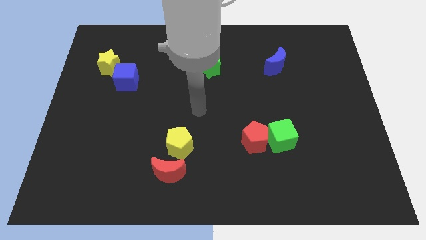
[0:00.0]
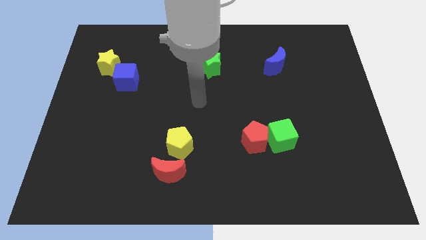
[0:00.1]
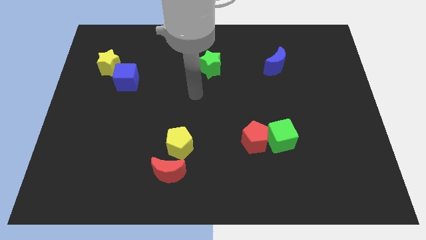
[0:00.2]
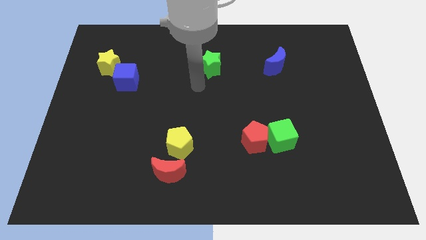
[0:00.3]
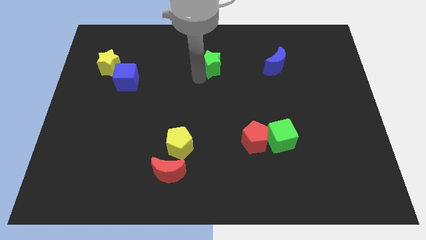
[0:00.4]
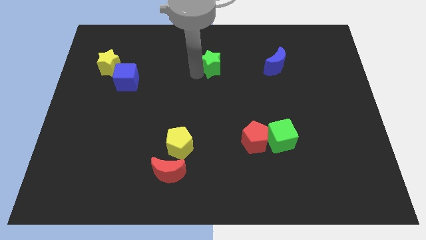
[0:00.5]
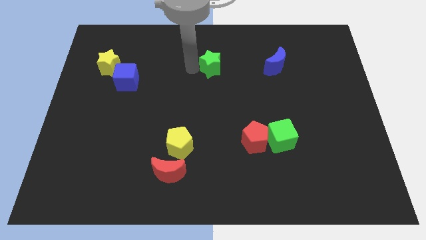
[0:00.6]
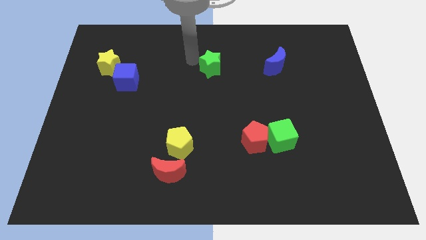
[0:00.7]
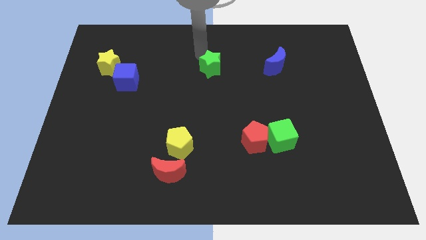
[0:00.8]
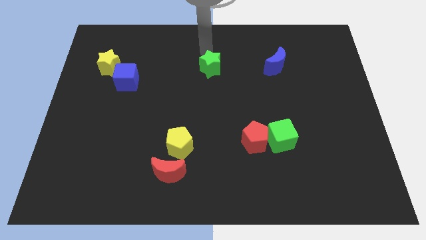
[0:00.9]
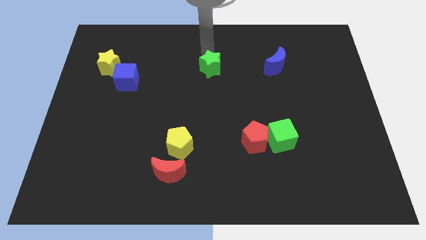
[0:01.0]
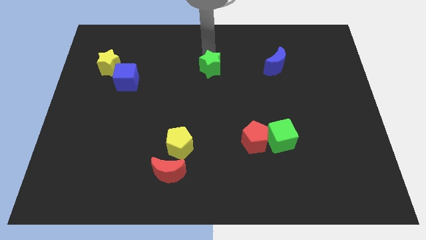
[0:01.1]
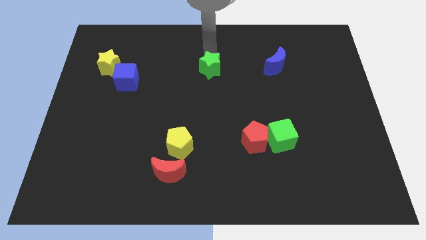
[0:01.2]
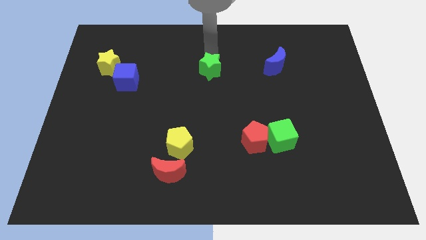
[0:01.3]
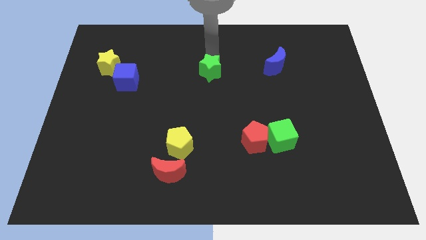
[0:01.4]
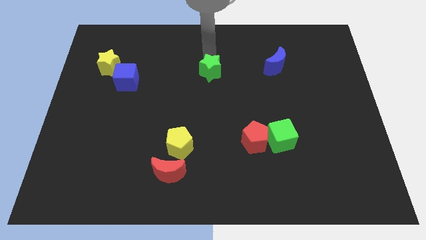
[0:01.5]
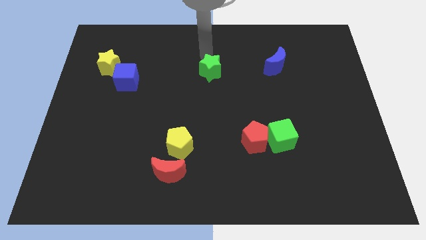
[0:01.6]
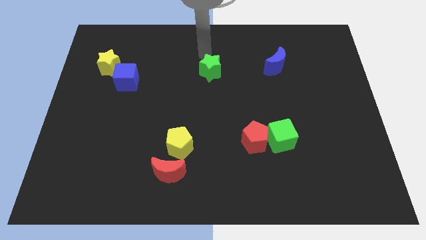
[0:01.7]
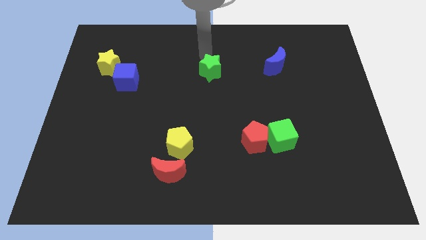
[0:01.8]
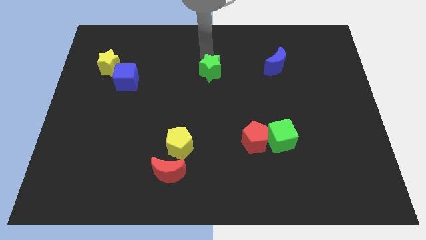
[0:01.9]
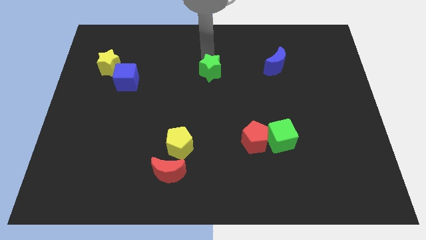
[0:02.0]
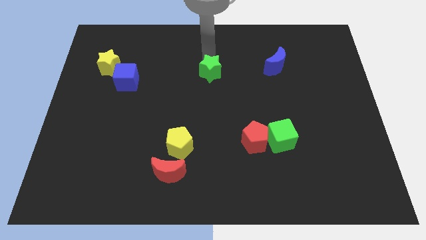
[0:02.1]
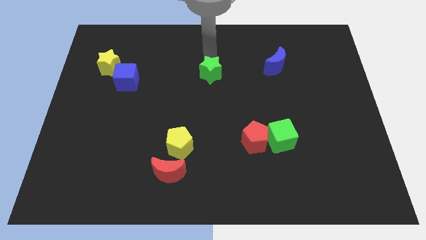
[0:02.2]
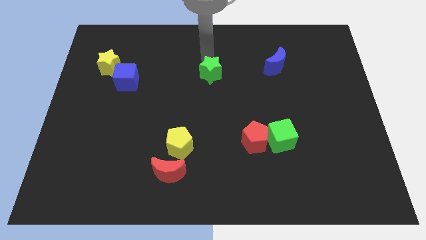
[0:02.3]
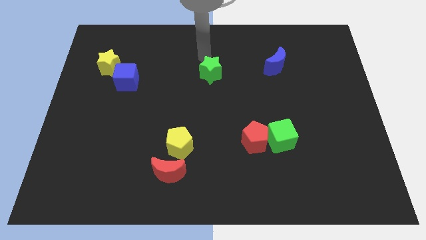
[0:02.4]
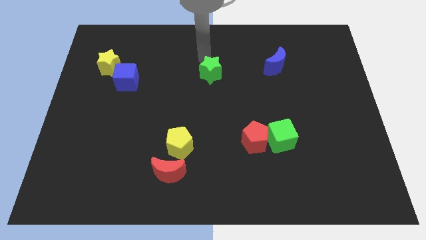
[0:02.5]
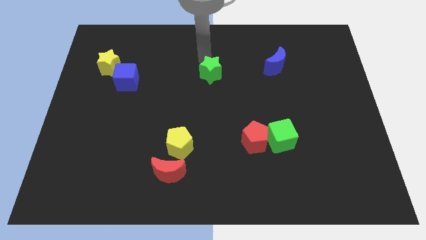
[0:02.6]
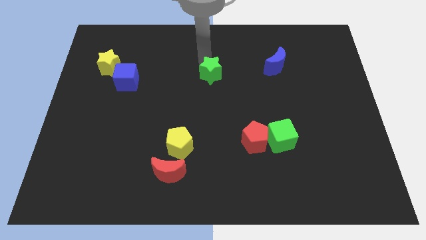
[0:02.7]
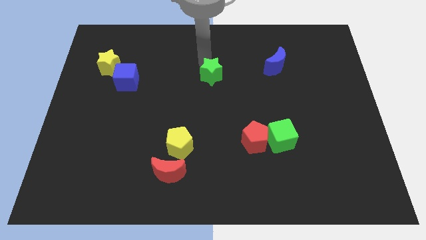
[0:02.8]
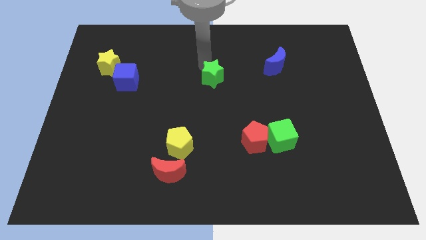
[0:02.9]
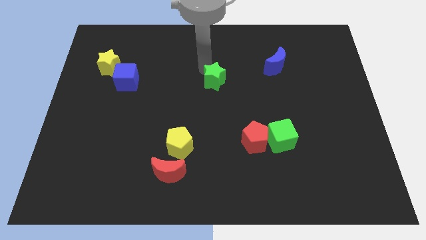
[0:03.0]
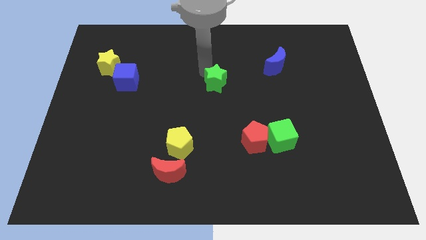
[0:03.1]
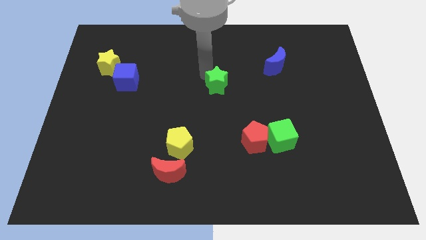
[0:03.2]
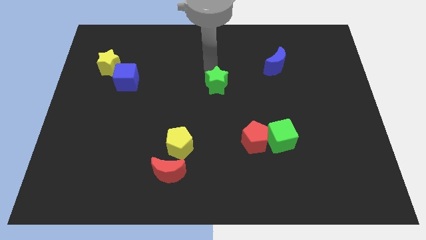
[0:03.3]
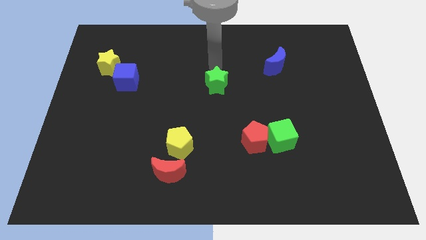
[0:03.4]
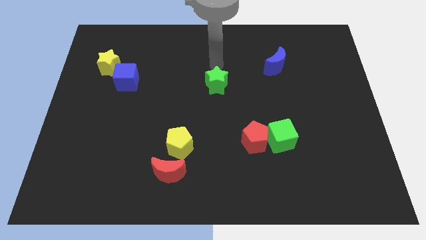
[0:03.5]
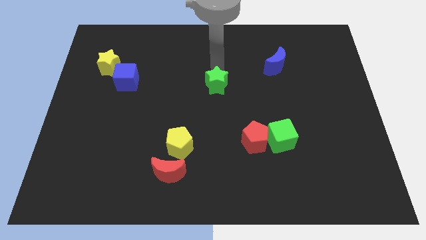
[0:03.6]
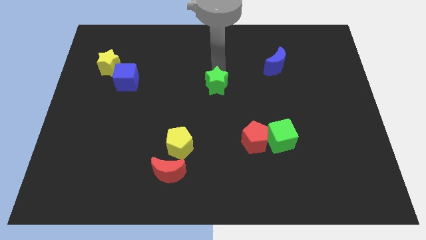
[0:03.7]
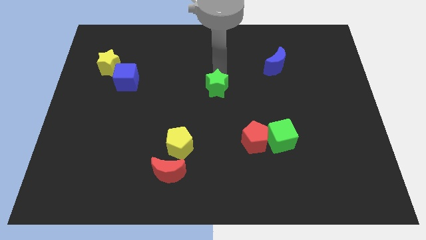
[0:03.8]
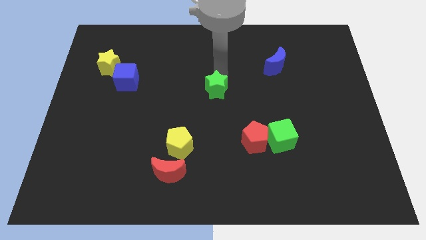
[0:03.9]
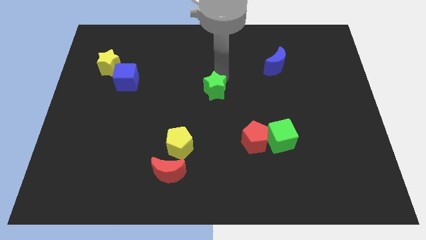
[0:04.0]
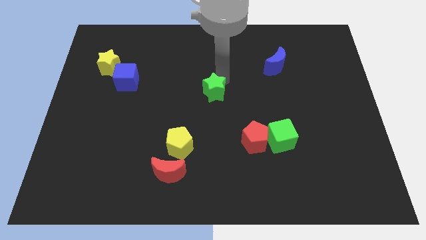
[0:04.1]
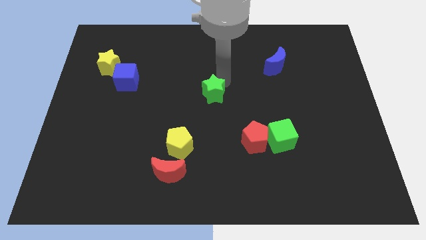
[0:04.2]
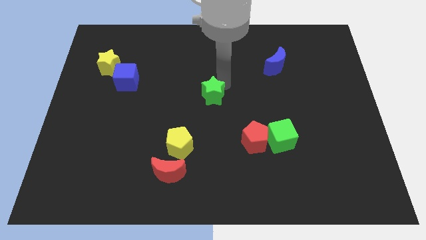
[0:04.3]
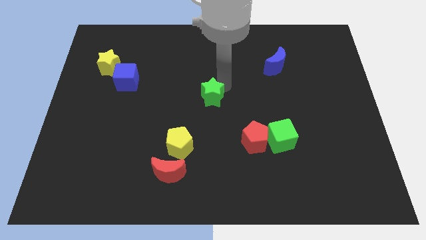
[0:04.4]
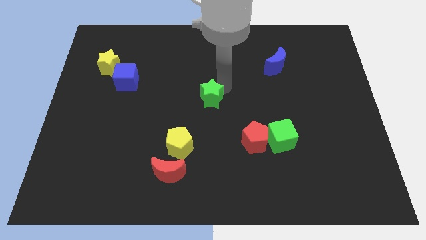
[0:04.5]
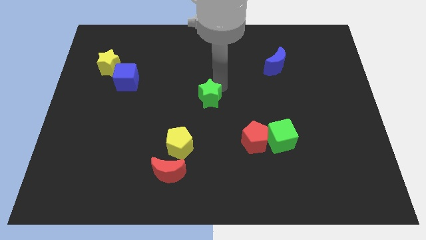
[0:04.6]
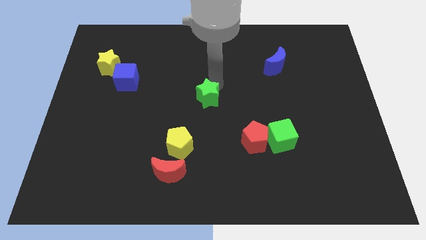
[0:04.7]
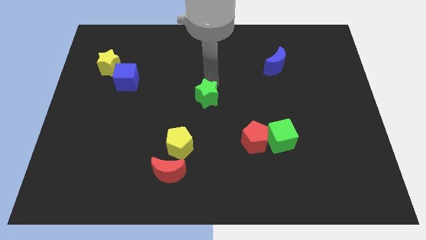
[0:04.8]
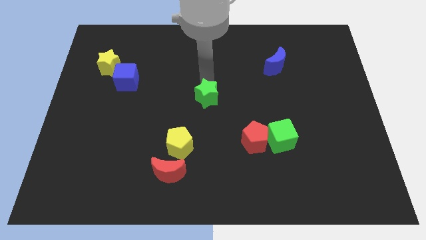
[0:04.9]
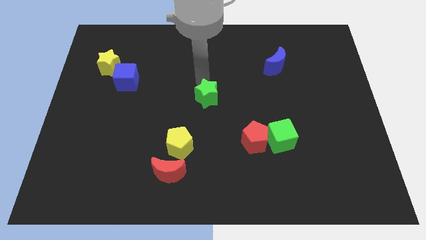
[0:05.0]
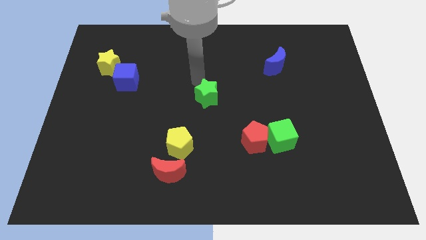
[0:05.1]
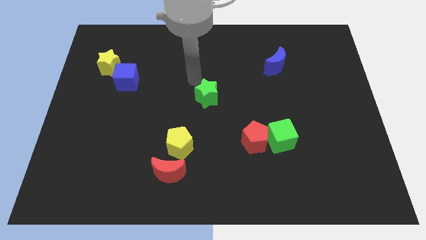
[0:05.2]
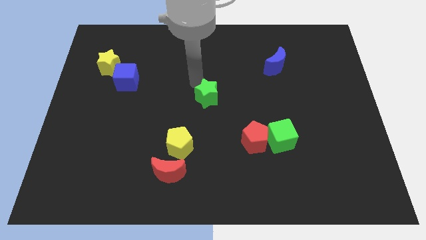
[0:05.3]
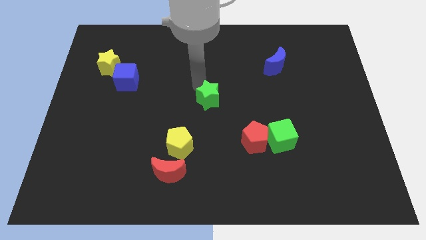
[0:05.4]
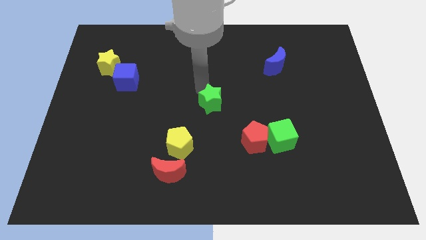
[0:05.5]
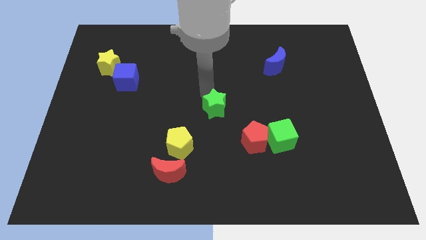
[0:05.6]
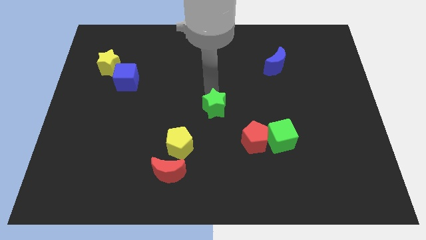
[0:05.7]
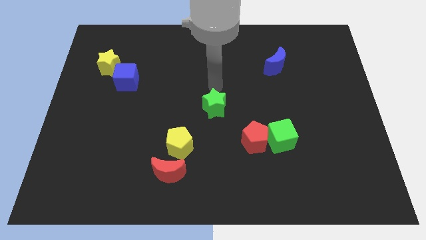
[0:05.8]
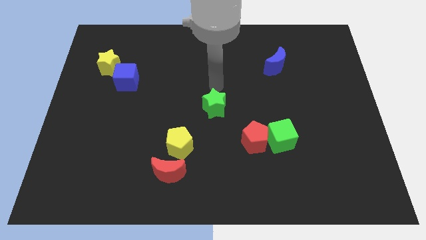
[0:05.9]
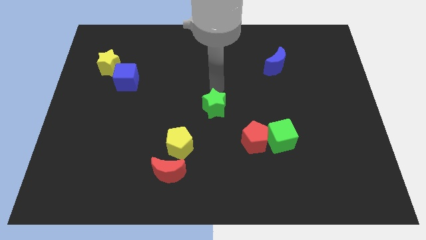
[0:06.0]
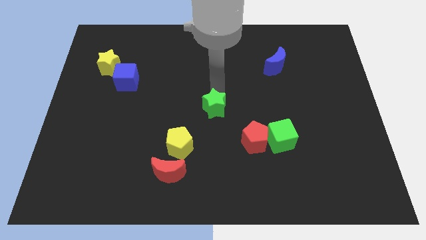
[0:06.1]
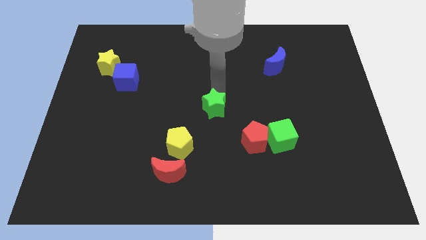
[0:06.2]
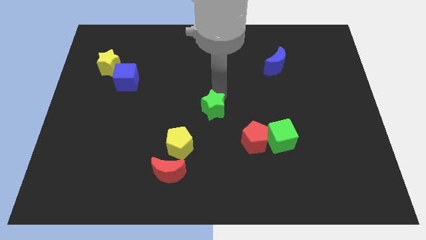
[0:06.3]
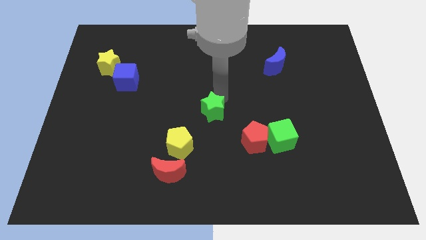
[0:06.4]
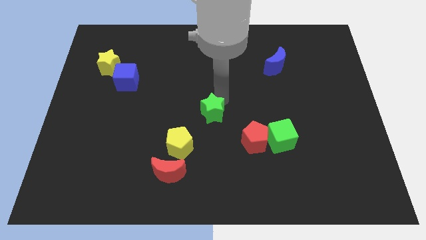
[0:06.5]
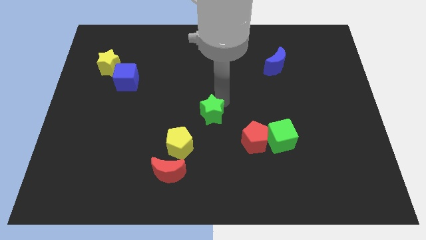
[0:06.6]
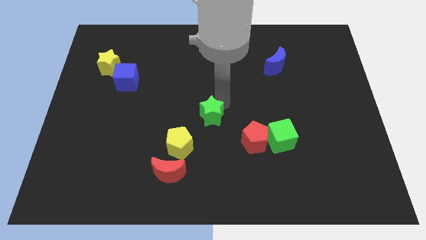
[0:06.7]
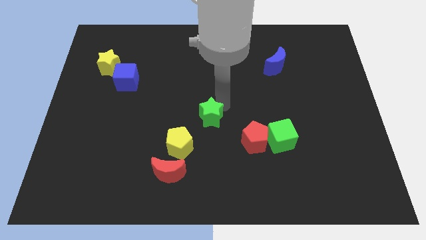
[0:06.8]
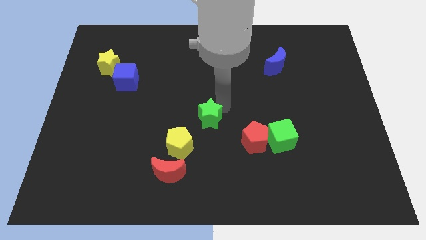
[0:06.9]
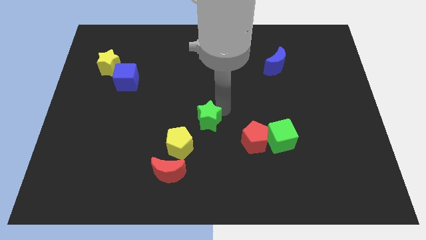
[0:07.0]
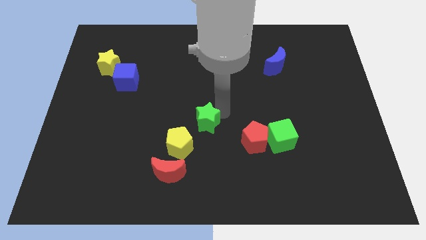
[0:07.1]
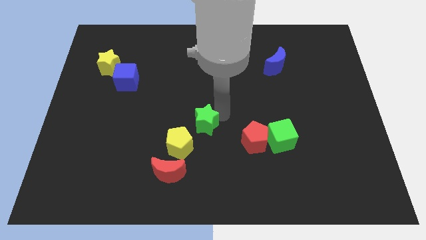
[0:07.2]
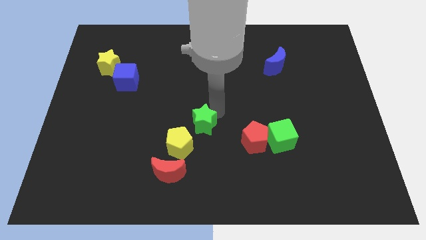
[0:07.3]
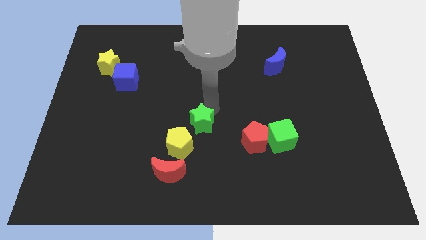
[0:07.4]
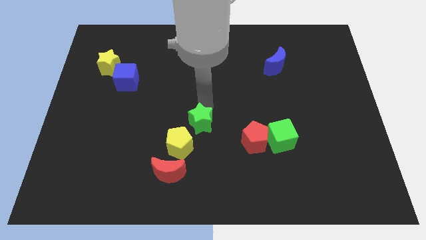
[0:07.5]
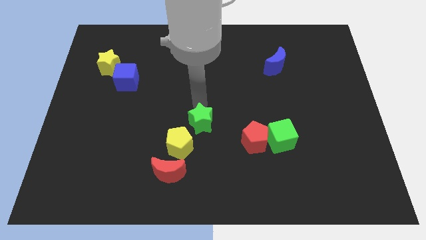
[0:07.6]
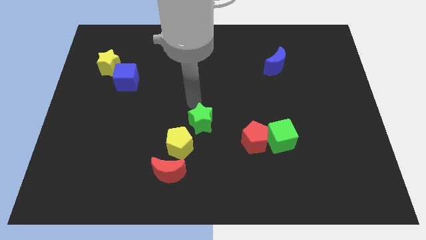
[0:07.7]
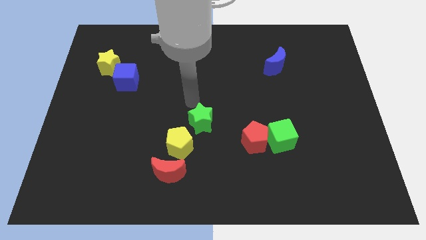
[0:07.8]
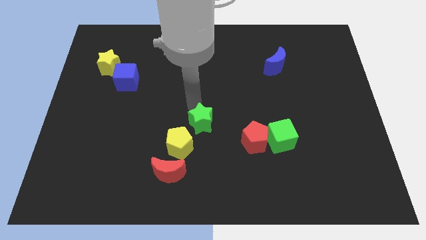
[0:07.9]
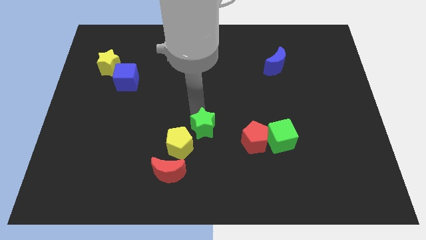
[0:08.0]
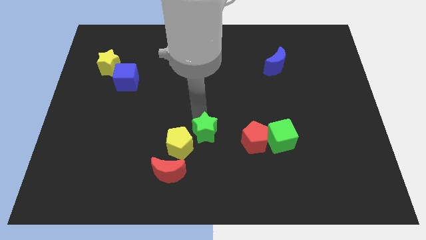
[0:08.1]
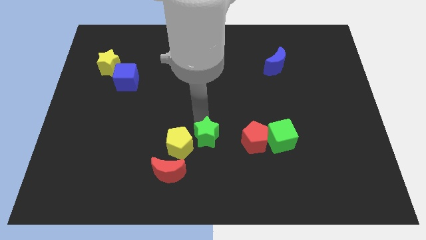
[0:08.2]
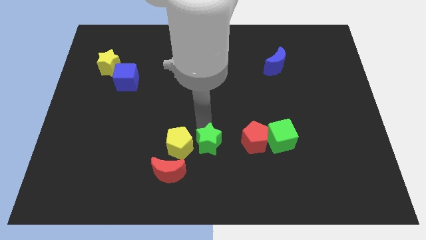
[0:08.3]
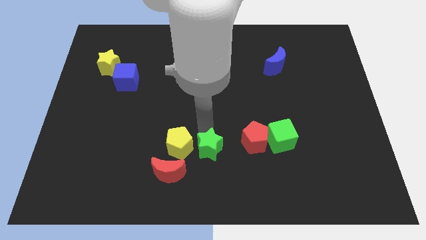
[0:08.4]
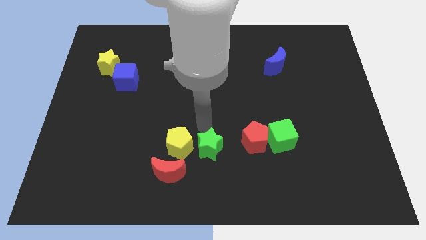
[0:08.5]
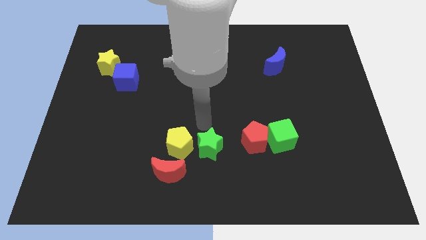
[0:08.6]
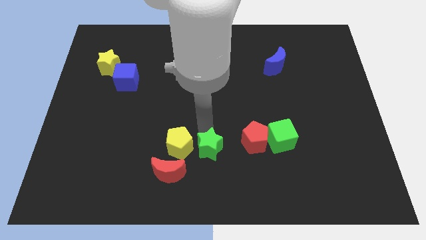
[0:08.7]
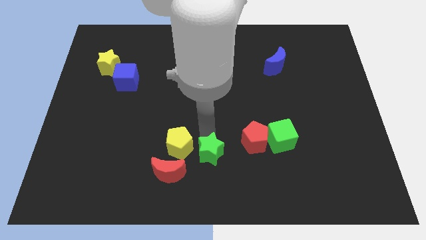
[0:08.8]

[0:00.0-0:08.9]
move the green star to the right of the red moon
